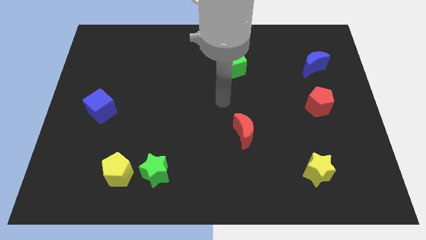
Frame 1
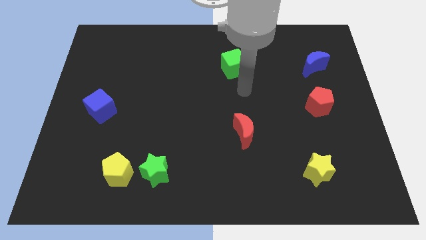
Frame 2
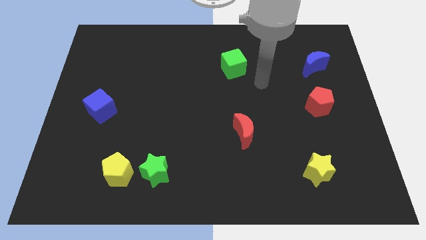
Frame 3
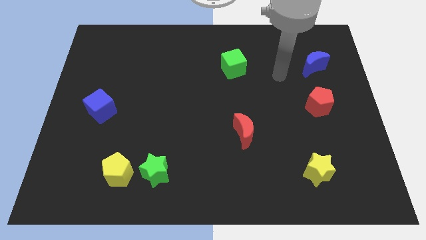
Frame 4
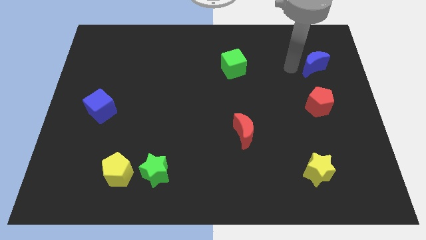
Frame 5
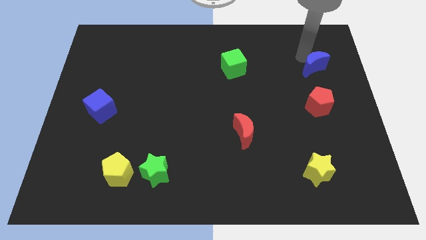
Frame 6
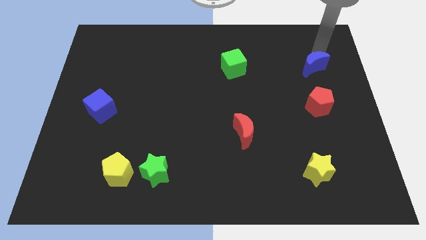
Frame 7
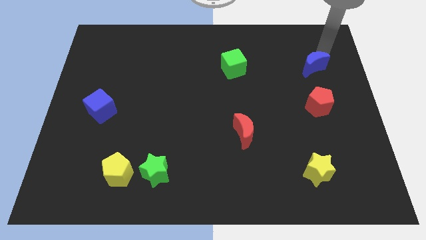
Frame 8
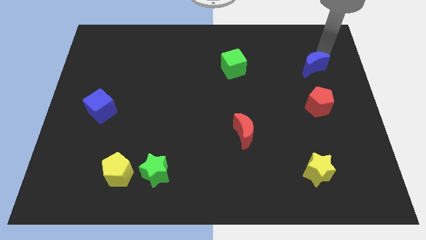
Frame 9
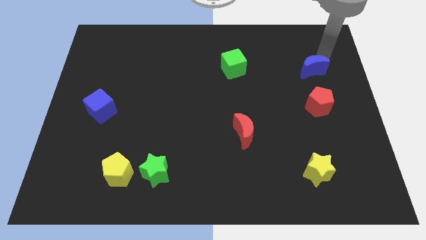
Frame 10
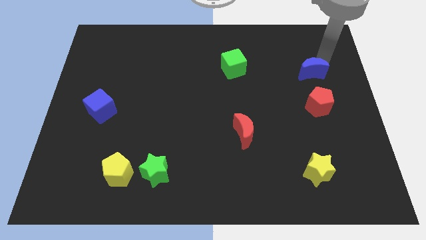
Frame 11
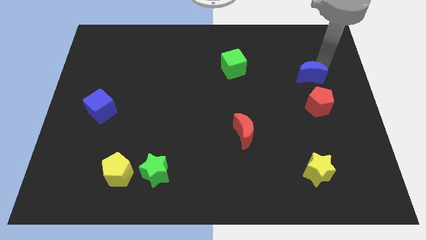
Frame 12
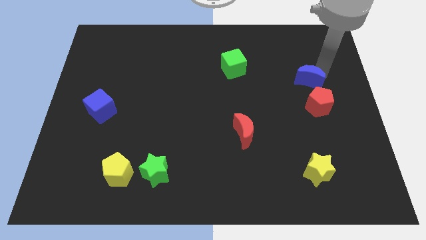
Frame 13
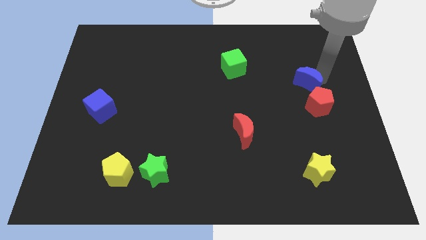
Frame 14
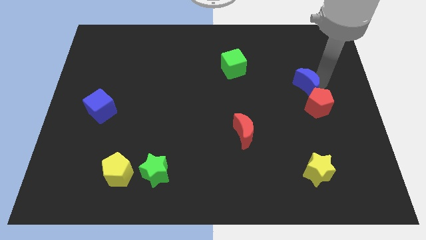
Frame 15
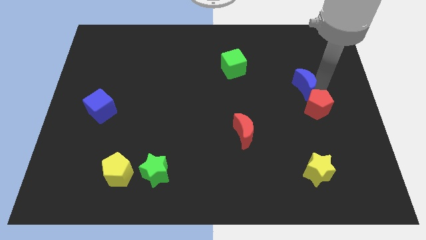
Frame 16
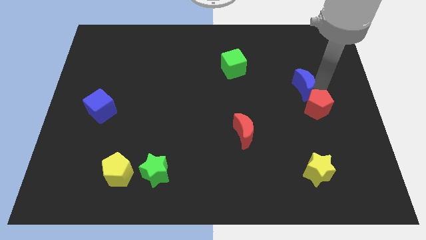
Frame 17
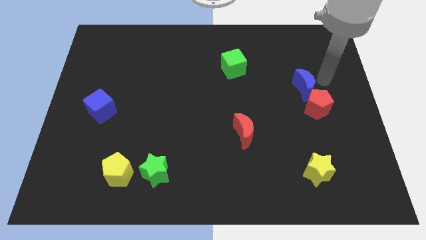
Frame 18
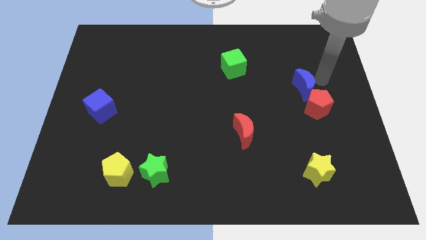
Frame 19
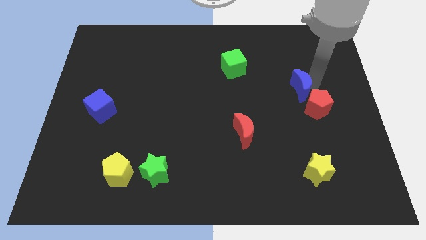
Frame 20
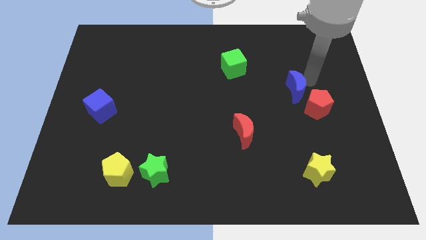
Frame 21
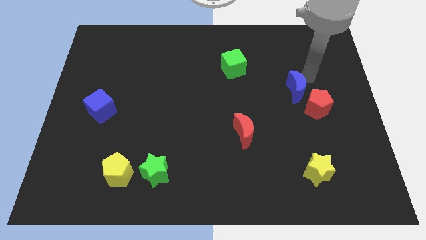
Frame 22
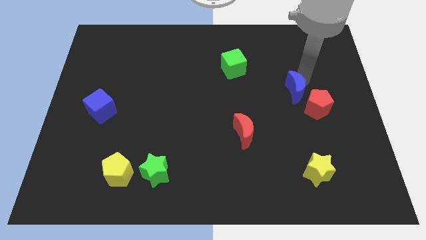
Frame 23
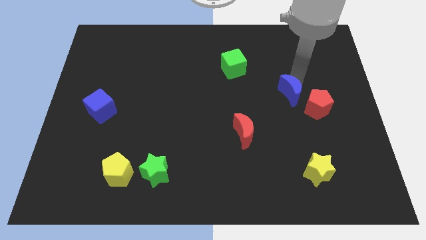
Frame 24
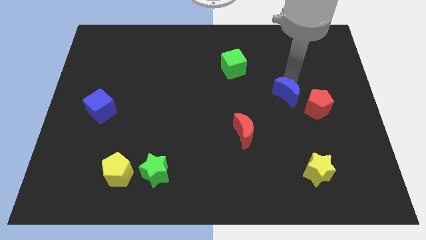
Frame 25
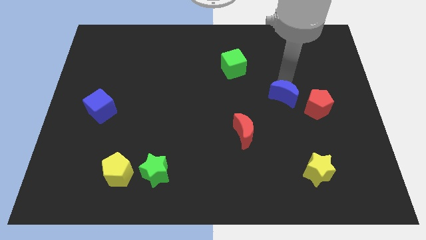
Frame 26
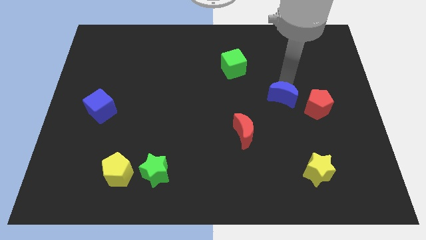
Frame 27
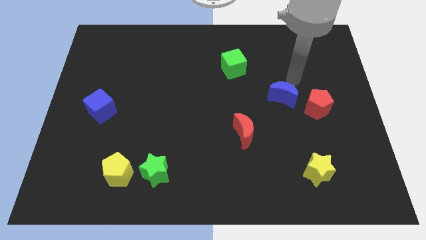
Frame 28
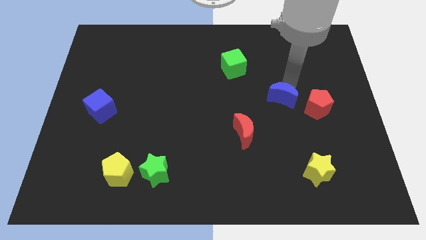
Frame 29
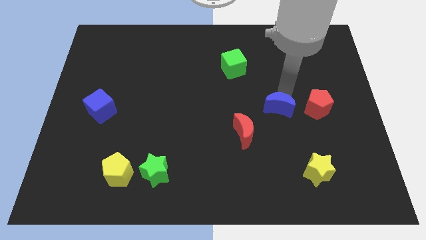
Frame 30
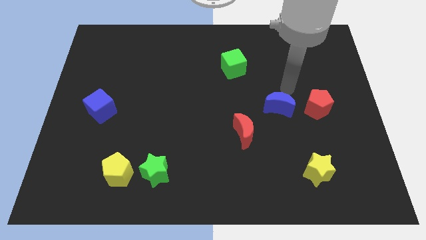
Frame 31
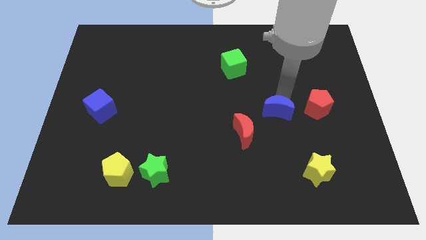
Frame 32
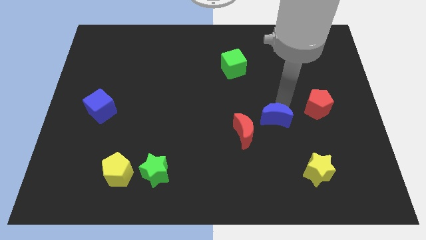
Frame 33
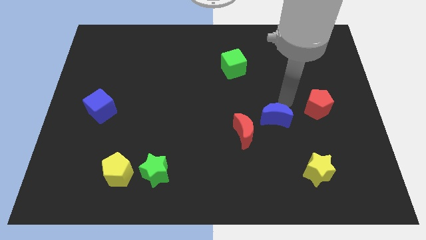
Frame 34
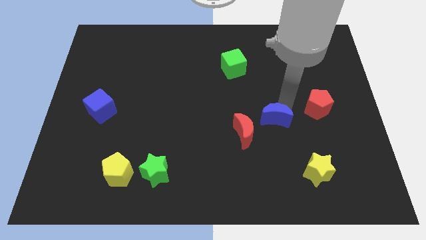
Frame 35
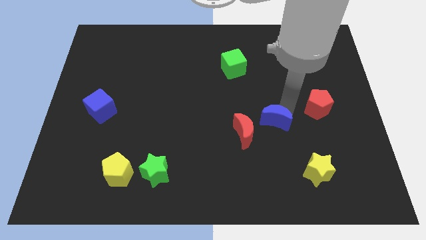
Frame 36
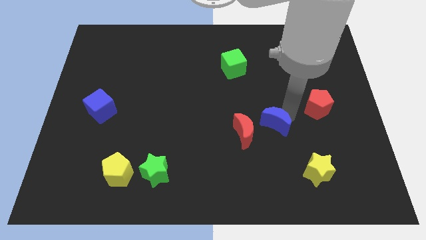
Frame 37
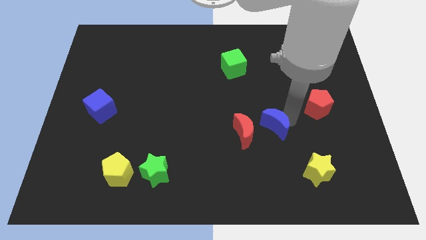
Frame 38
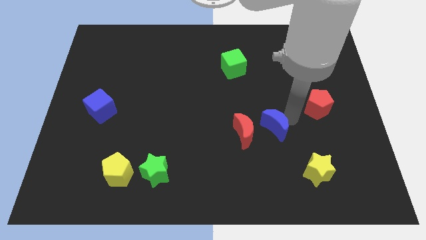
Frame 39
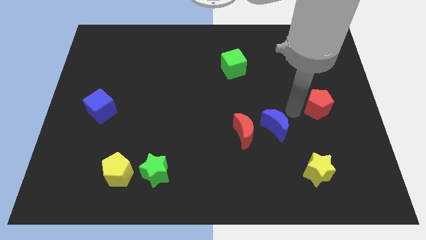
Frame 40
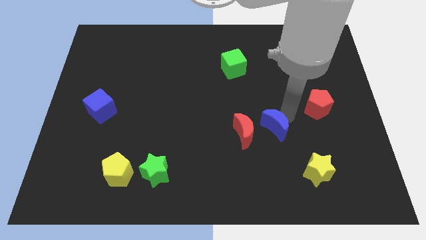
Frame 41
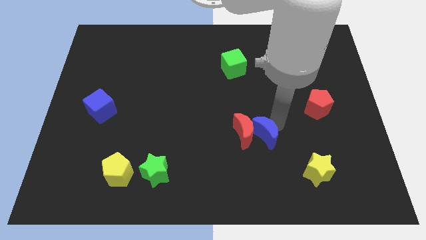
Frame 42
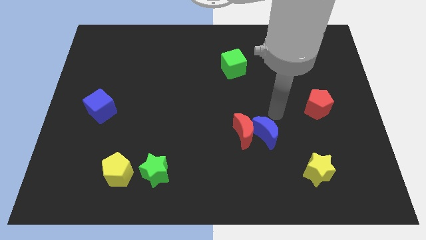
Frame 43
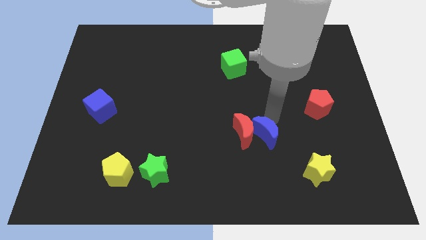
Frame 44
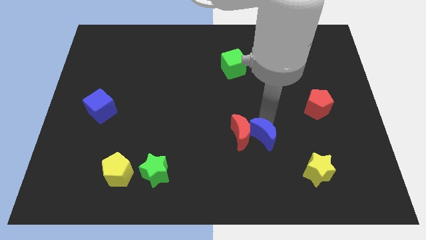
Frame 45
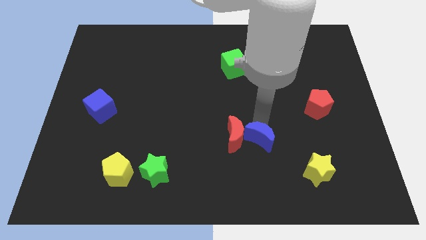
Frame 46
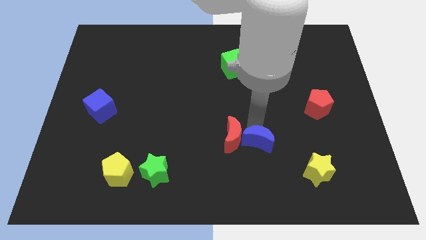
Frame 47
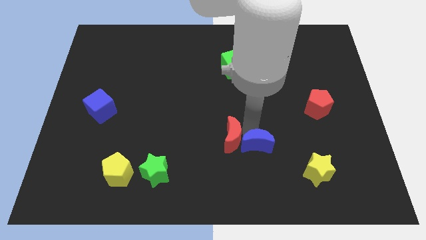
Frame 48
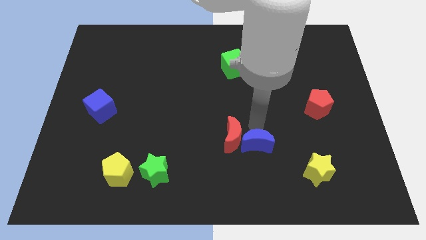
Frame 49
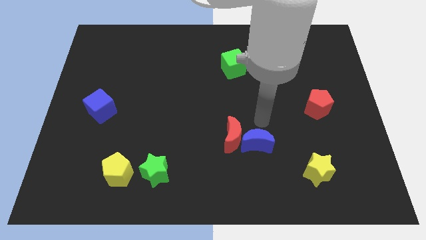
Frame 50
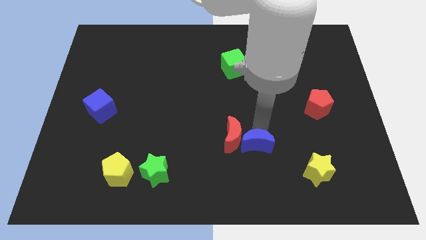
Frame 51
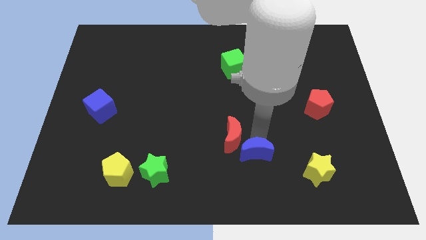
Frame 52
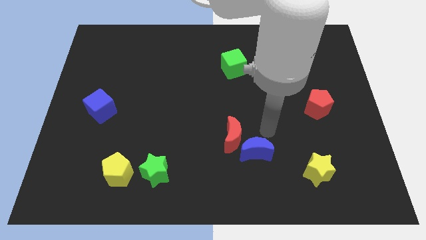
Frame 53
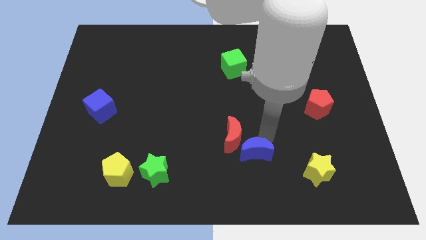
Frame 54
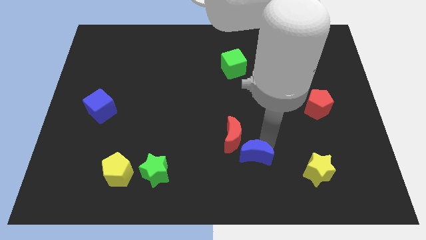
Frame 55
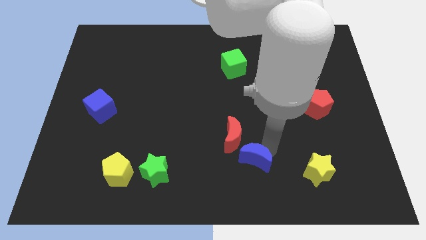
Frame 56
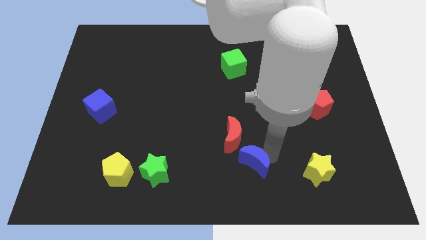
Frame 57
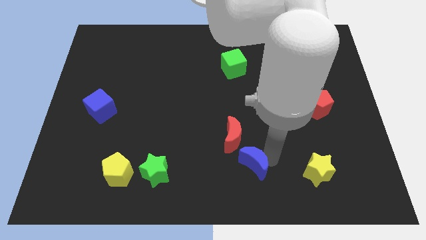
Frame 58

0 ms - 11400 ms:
put the blue moon to the bottom

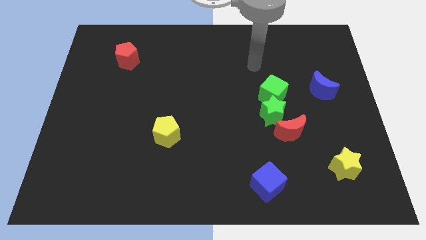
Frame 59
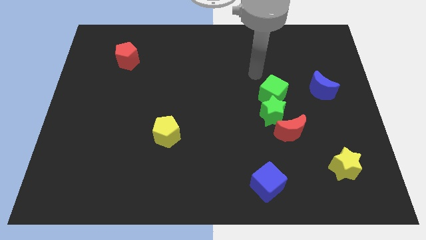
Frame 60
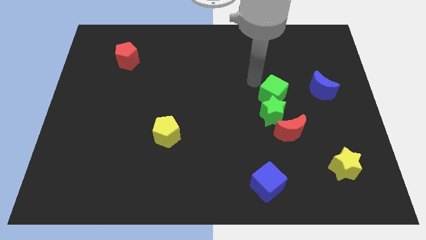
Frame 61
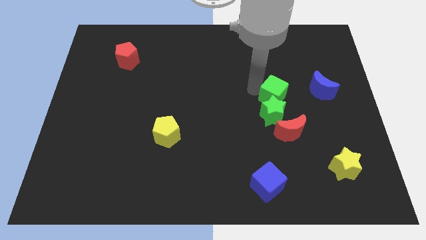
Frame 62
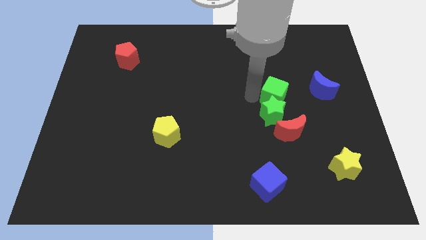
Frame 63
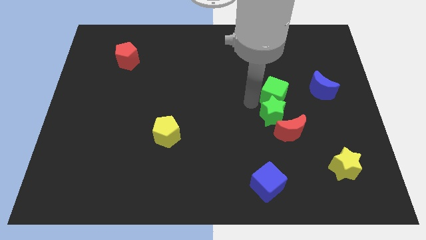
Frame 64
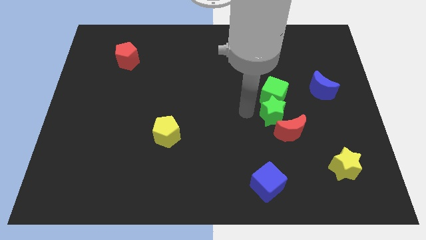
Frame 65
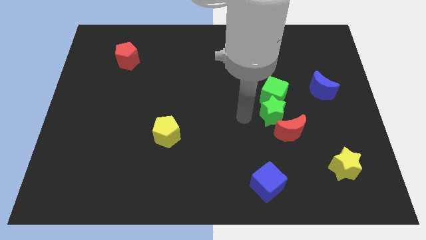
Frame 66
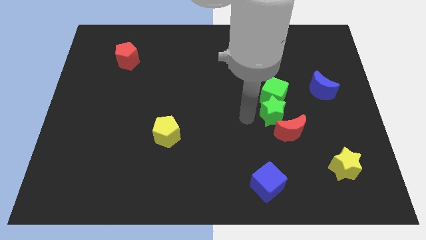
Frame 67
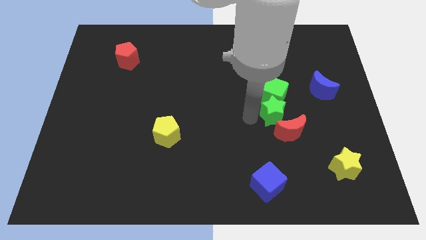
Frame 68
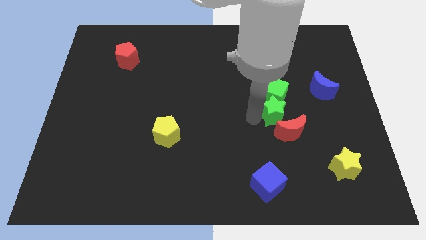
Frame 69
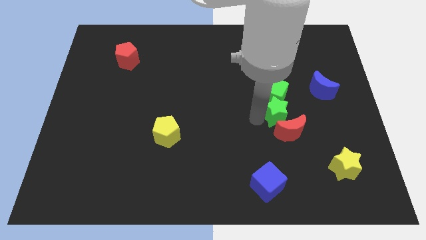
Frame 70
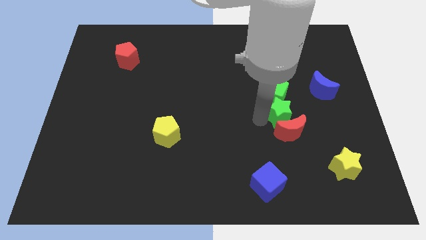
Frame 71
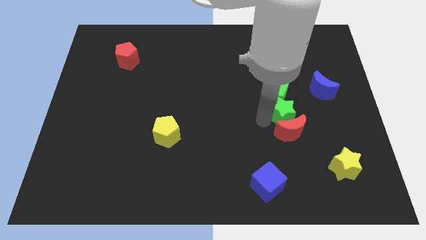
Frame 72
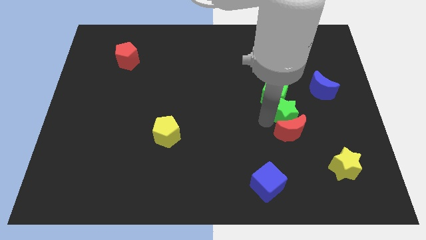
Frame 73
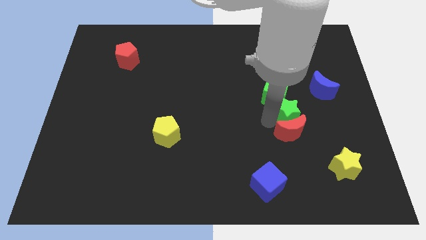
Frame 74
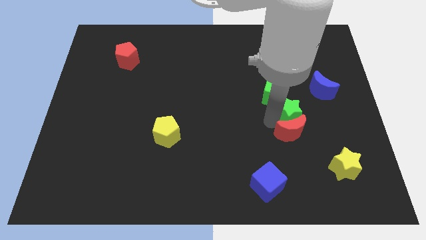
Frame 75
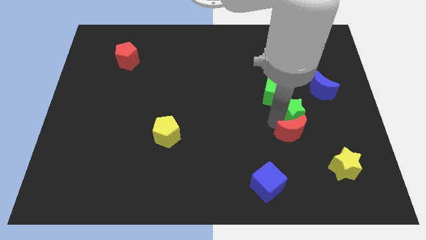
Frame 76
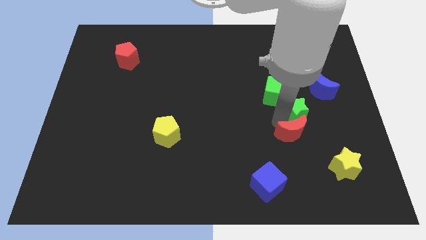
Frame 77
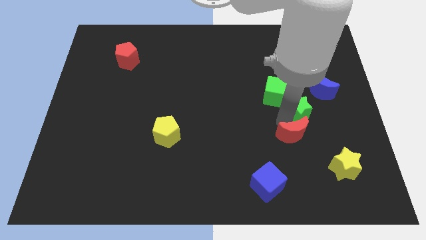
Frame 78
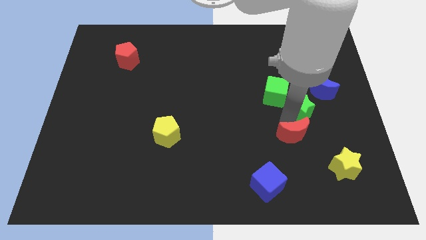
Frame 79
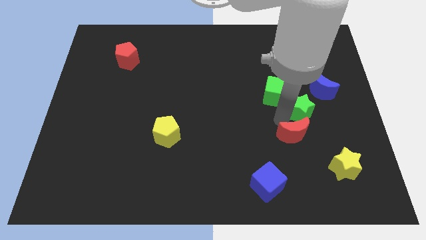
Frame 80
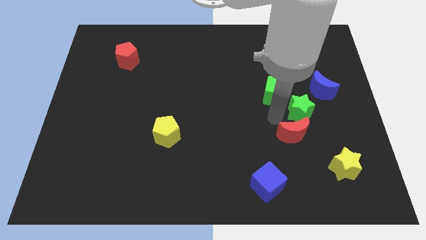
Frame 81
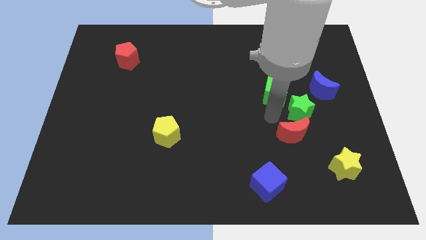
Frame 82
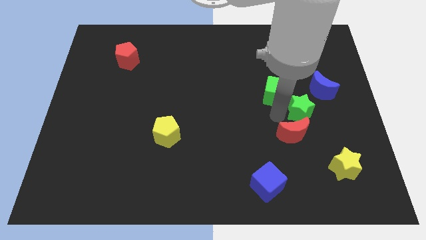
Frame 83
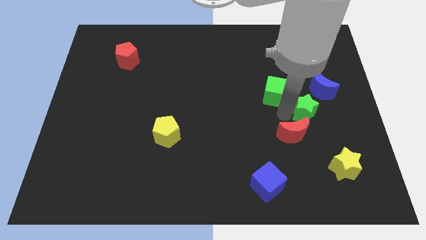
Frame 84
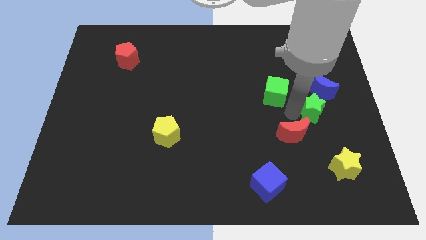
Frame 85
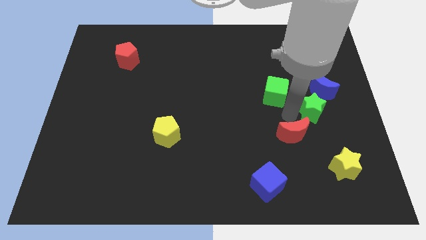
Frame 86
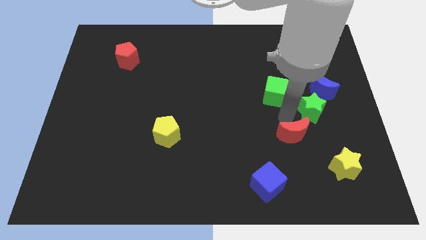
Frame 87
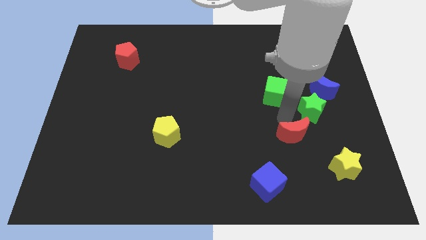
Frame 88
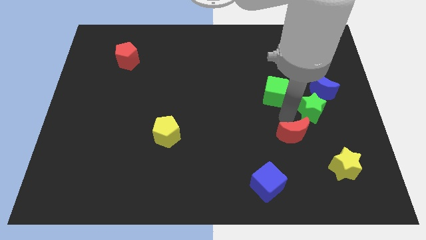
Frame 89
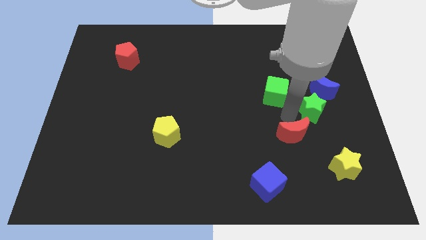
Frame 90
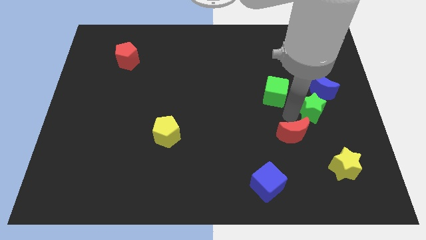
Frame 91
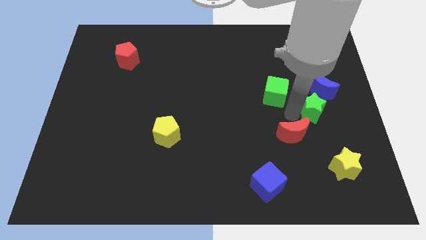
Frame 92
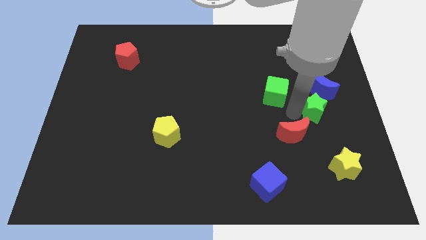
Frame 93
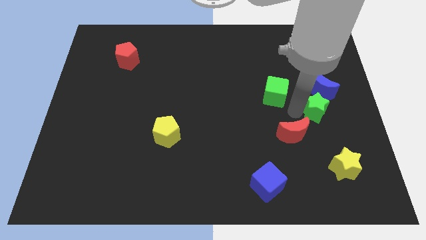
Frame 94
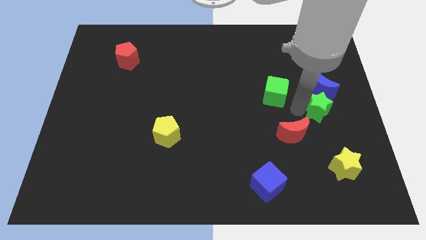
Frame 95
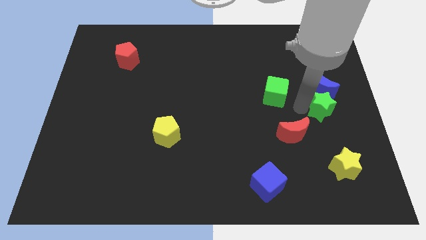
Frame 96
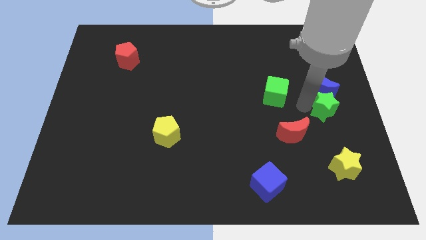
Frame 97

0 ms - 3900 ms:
push the green star to the center right
